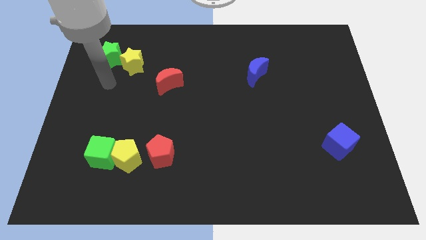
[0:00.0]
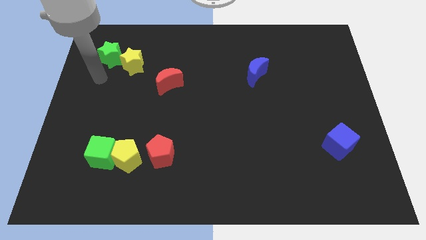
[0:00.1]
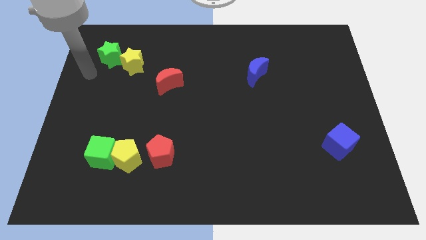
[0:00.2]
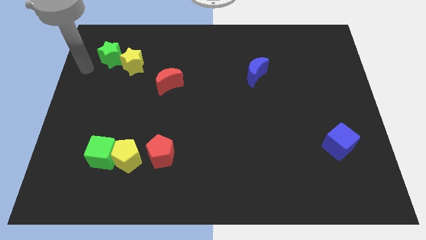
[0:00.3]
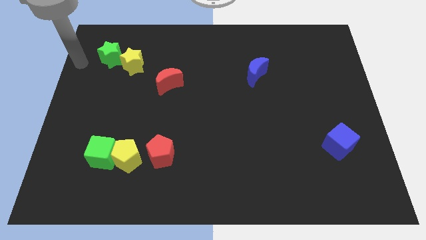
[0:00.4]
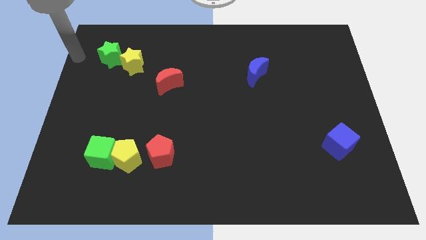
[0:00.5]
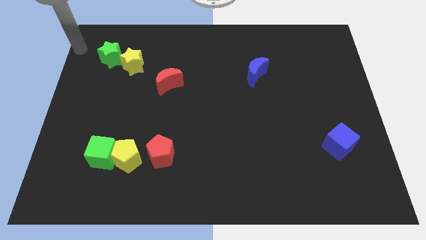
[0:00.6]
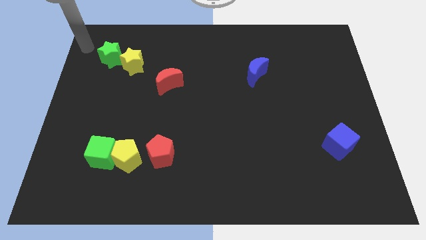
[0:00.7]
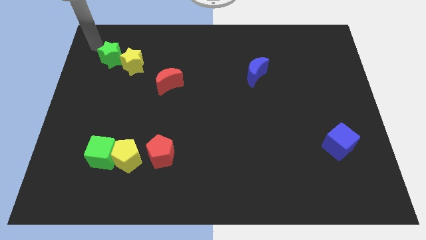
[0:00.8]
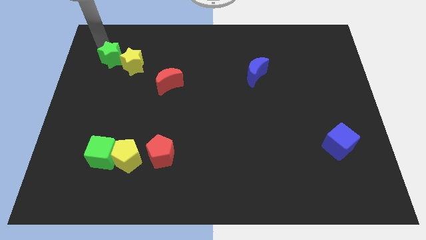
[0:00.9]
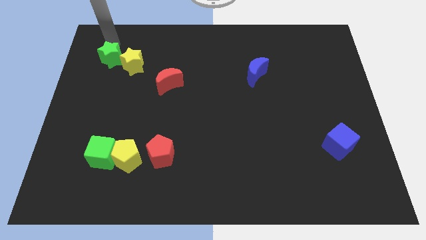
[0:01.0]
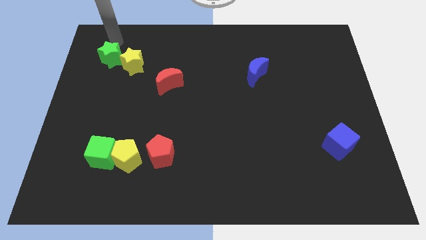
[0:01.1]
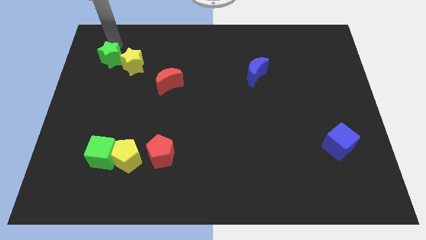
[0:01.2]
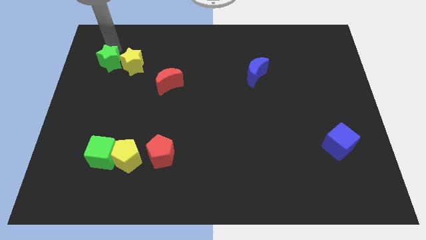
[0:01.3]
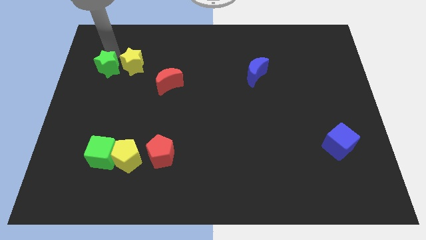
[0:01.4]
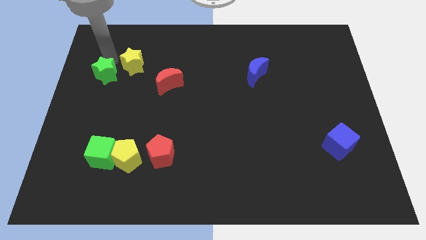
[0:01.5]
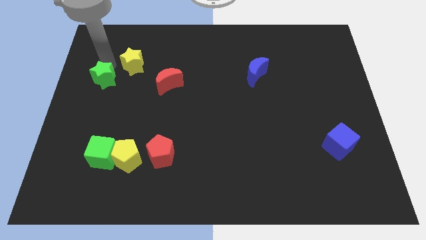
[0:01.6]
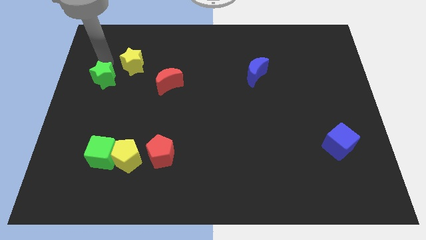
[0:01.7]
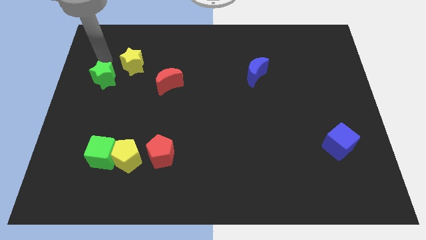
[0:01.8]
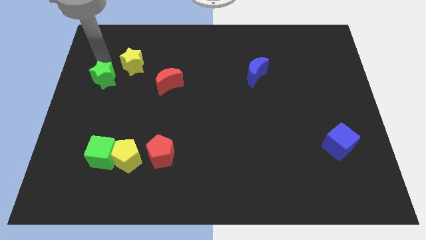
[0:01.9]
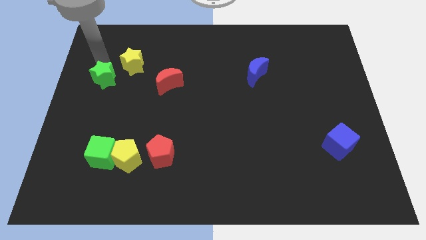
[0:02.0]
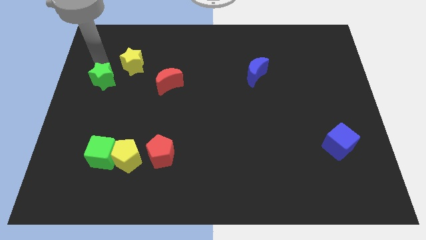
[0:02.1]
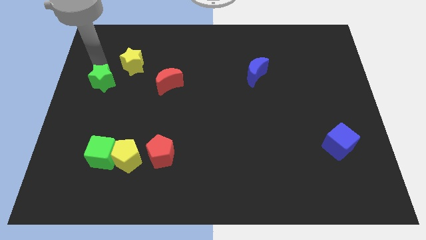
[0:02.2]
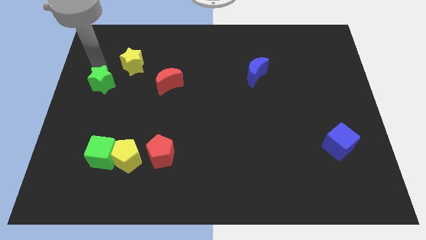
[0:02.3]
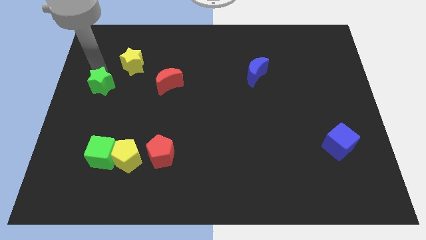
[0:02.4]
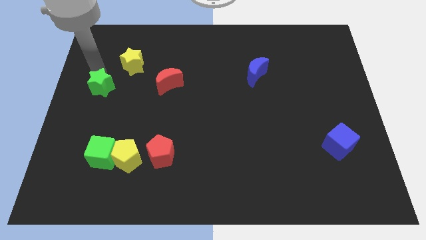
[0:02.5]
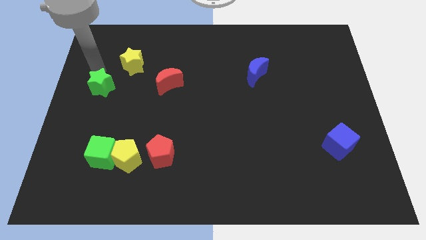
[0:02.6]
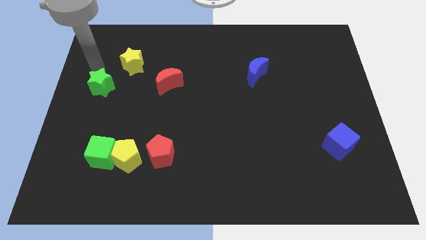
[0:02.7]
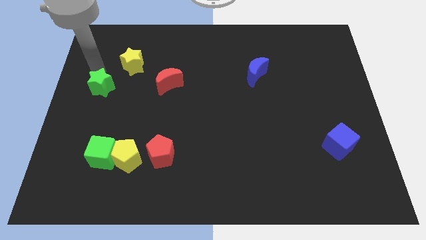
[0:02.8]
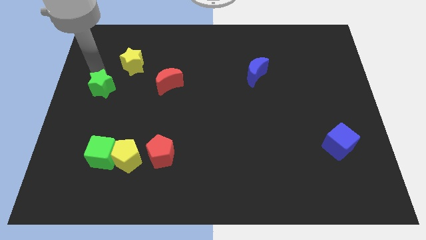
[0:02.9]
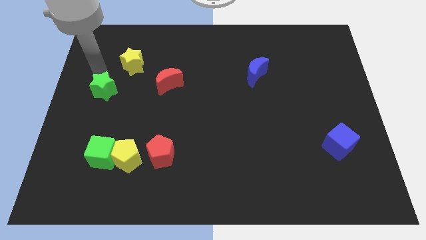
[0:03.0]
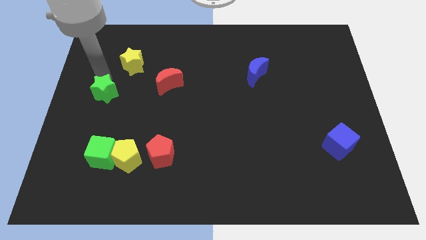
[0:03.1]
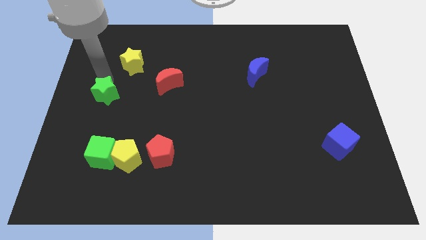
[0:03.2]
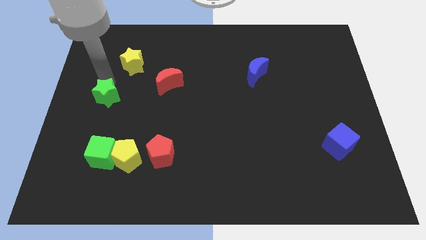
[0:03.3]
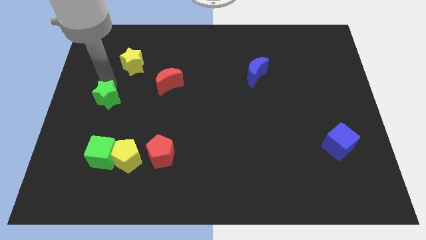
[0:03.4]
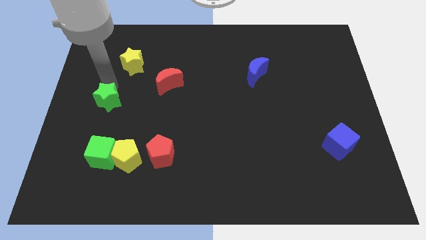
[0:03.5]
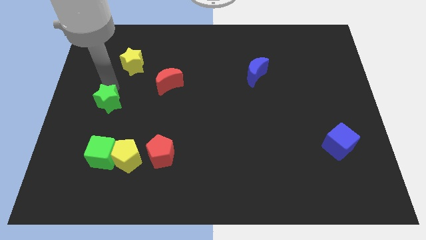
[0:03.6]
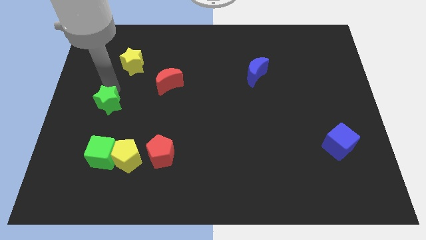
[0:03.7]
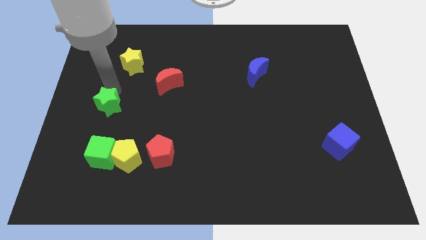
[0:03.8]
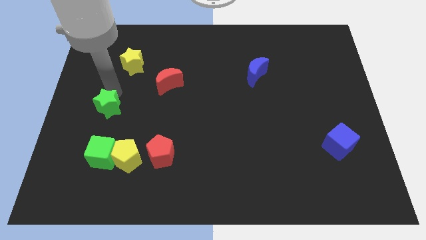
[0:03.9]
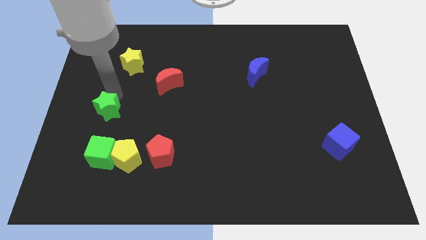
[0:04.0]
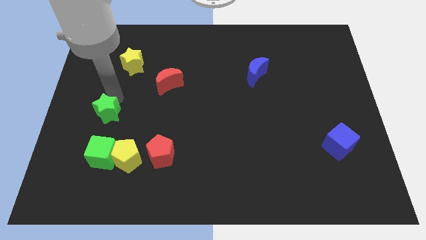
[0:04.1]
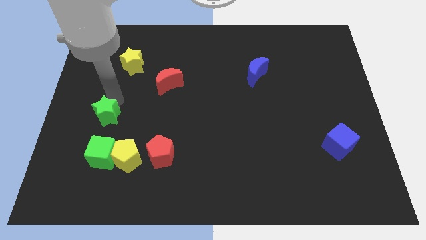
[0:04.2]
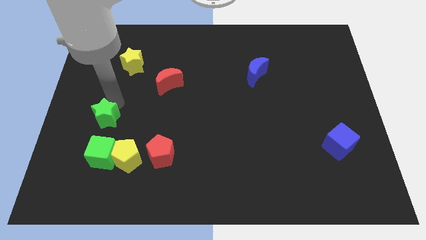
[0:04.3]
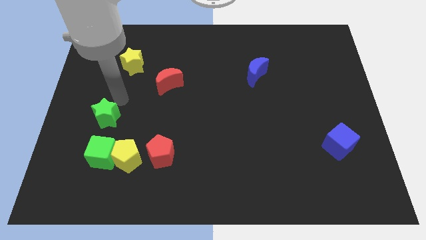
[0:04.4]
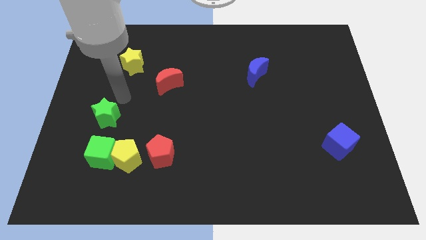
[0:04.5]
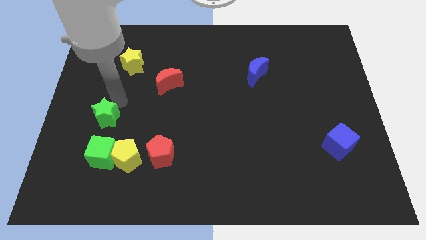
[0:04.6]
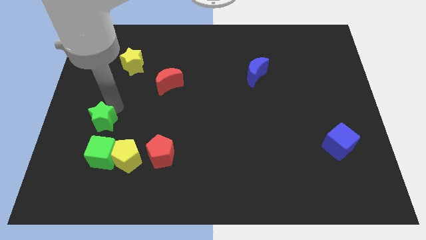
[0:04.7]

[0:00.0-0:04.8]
move the green star downwards

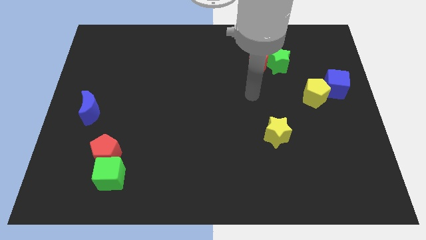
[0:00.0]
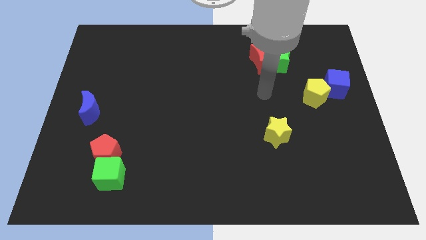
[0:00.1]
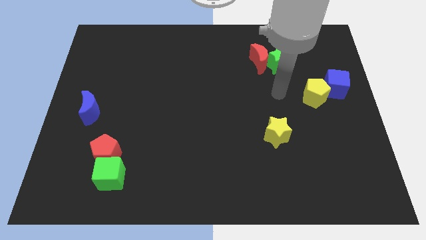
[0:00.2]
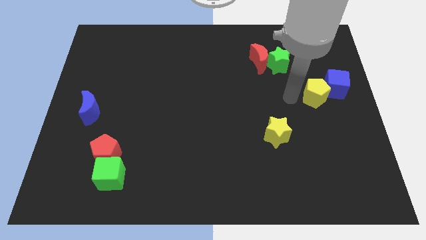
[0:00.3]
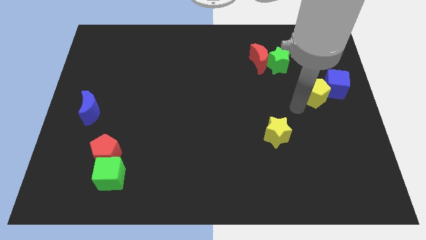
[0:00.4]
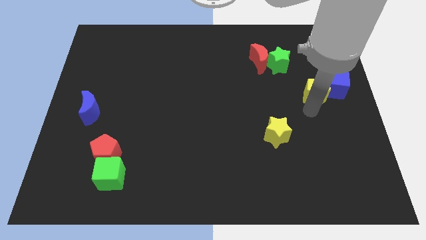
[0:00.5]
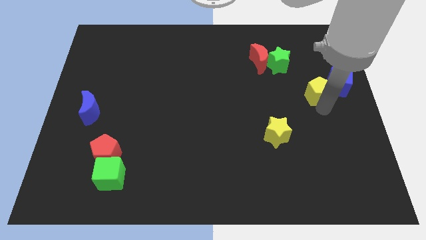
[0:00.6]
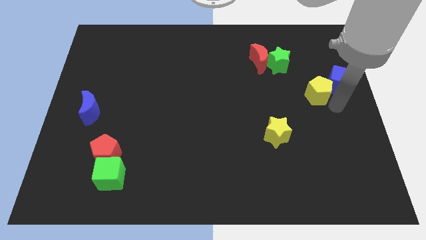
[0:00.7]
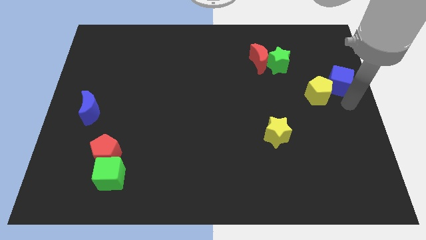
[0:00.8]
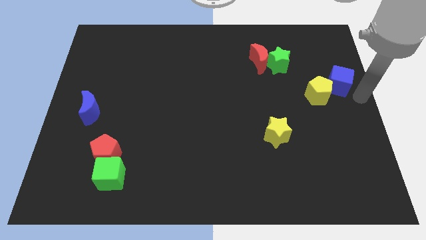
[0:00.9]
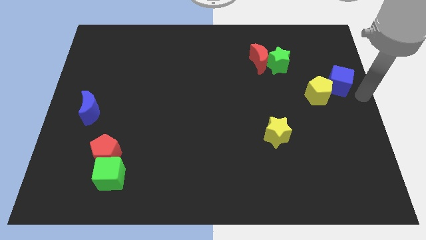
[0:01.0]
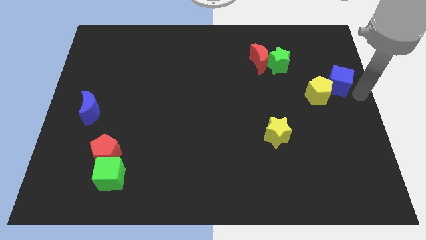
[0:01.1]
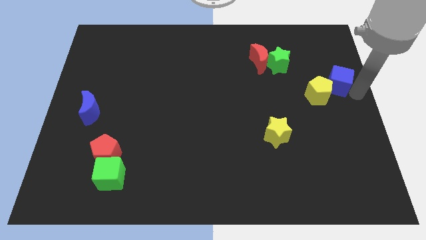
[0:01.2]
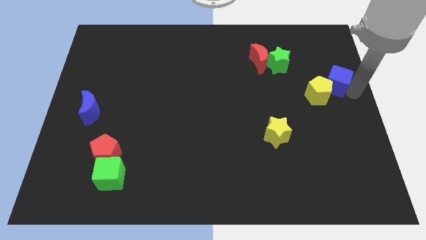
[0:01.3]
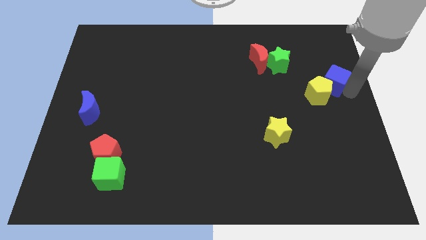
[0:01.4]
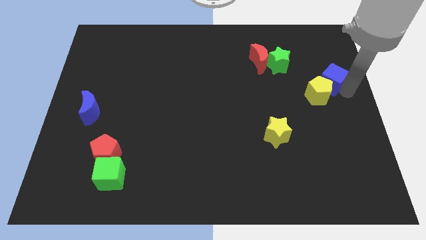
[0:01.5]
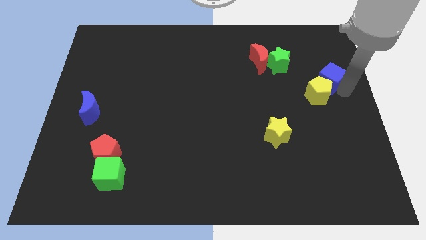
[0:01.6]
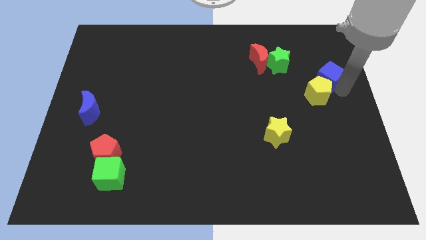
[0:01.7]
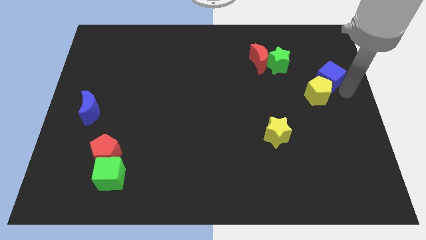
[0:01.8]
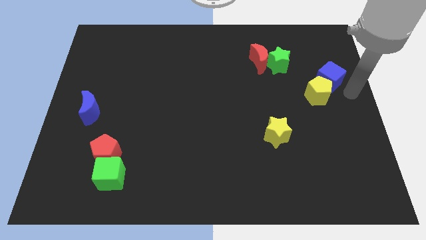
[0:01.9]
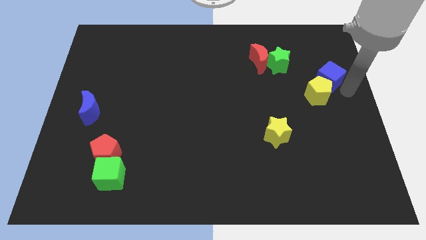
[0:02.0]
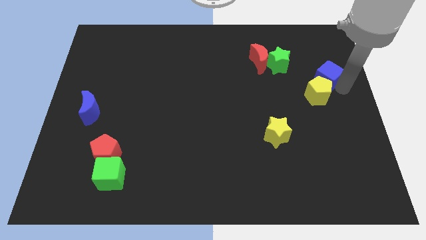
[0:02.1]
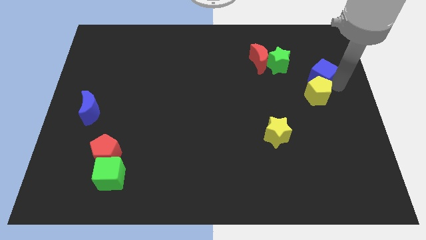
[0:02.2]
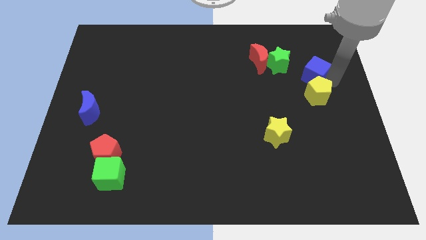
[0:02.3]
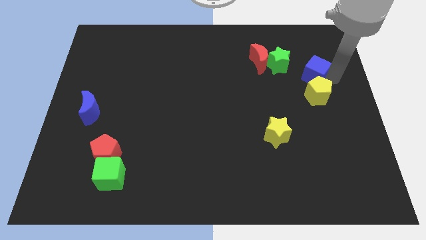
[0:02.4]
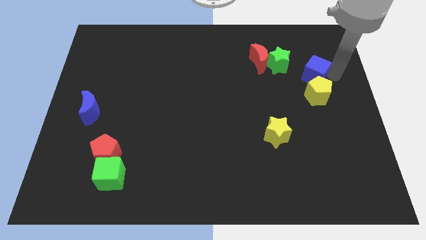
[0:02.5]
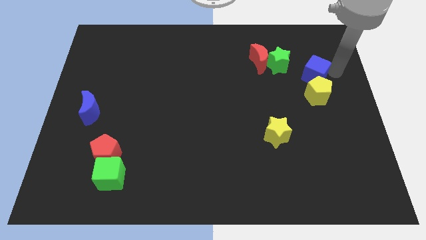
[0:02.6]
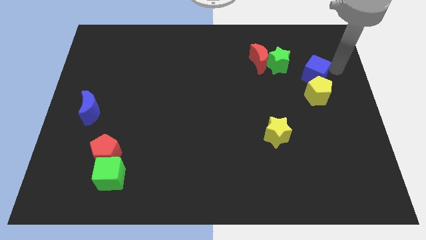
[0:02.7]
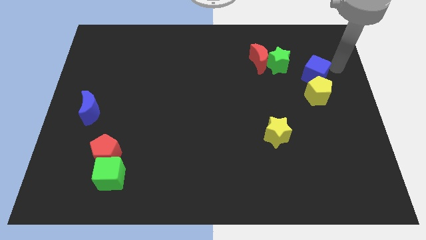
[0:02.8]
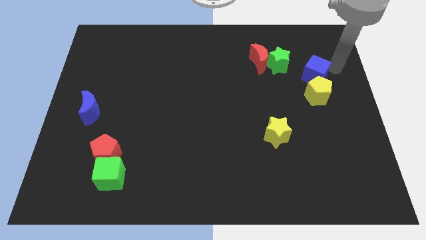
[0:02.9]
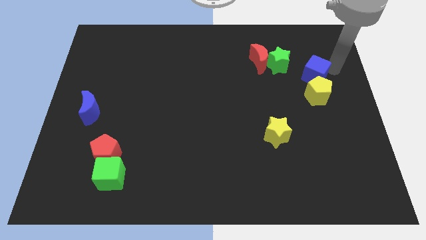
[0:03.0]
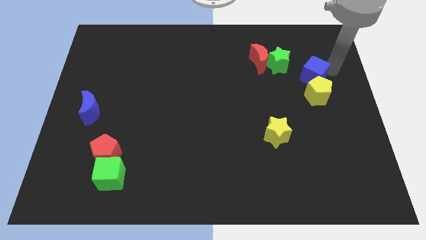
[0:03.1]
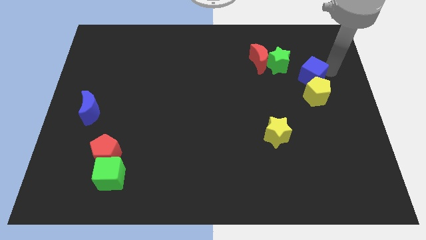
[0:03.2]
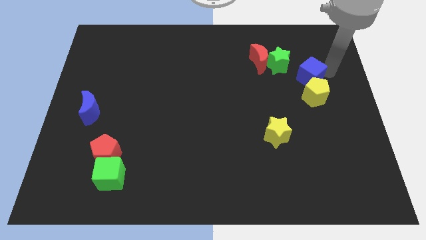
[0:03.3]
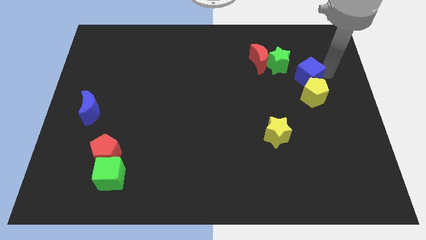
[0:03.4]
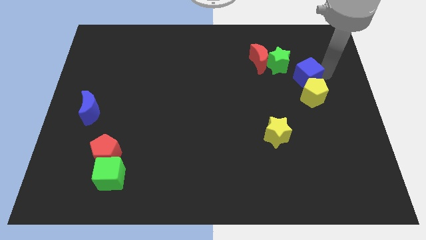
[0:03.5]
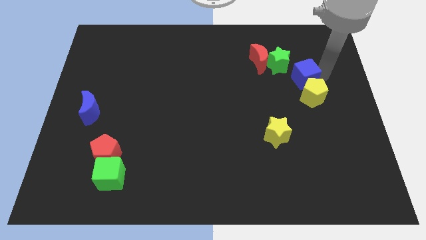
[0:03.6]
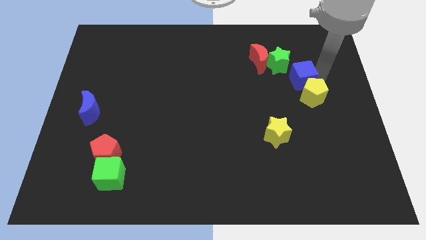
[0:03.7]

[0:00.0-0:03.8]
slide the blue cube to the left somewhat
